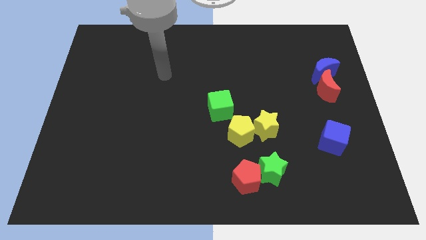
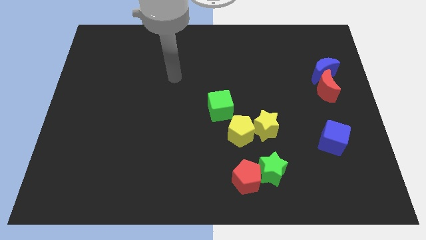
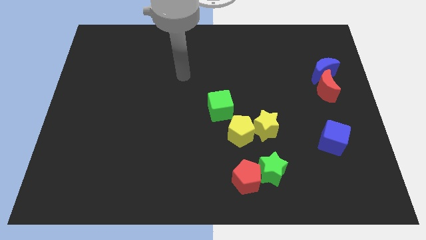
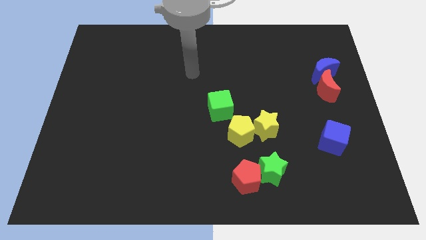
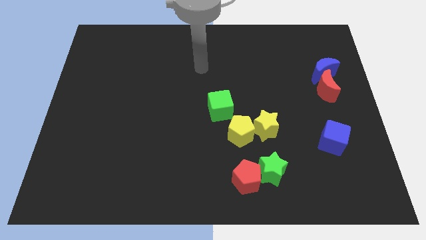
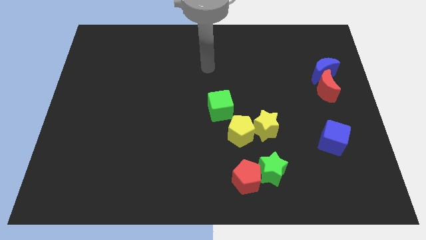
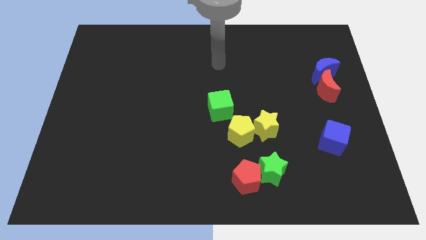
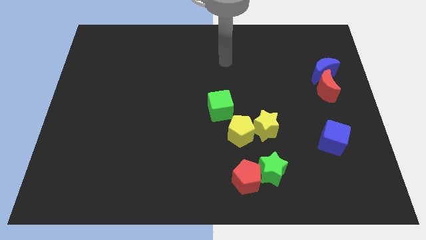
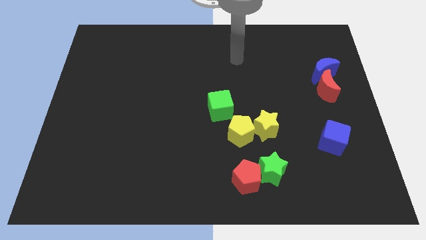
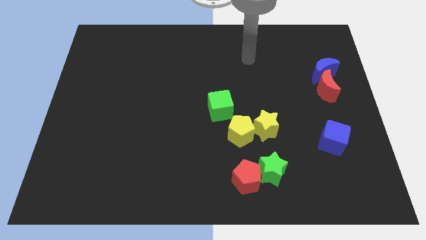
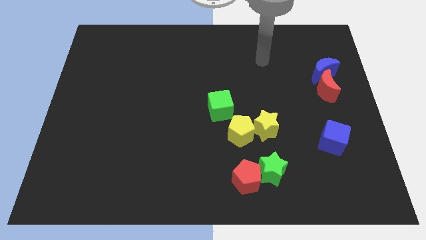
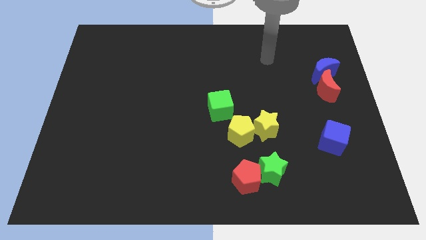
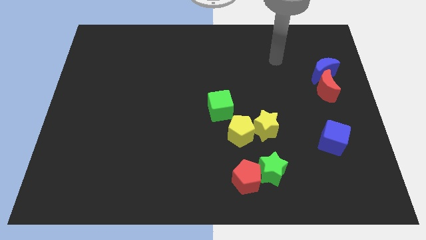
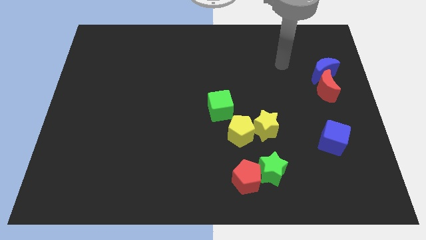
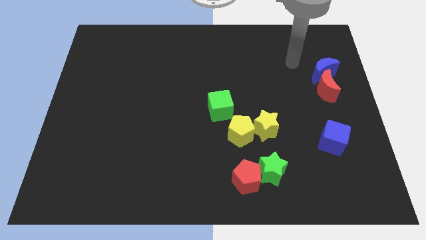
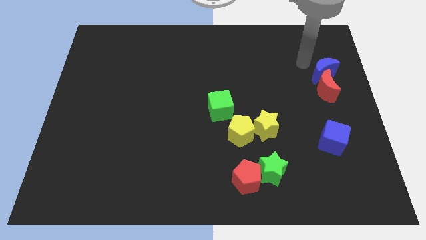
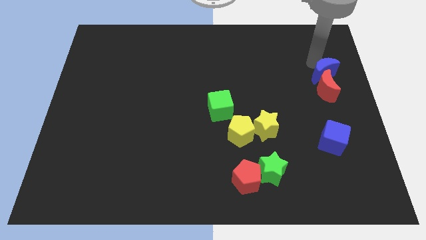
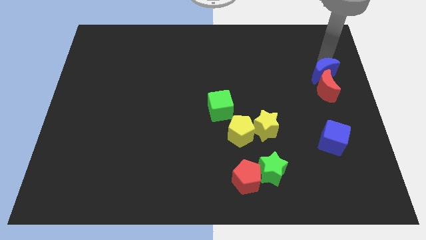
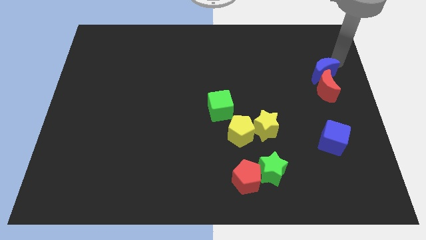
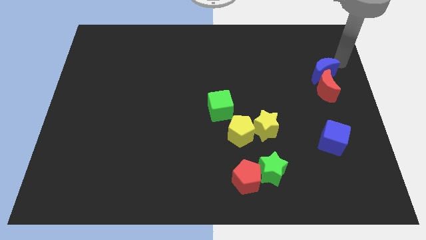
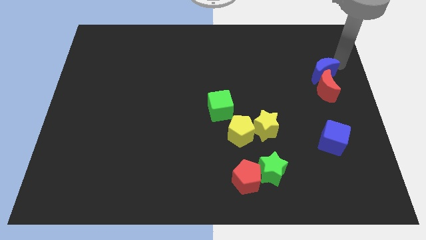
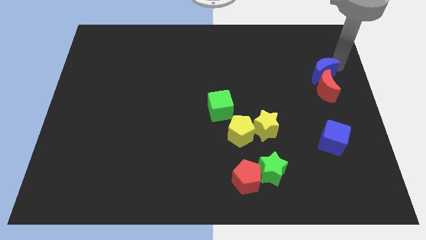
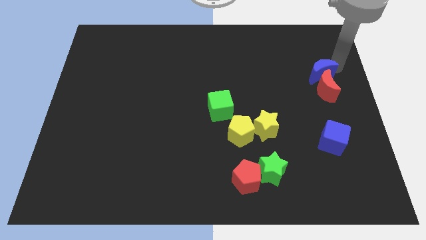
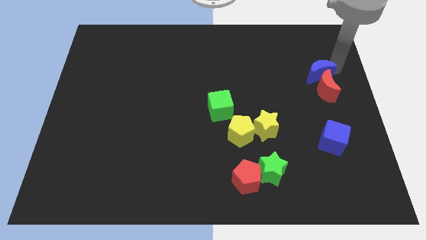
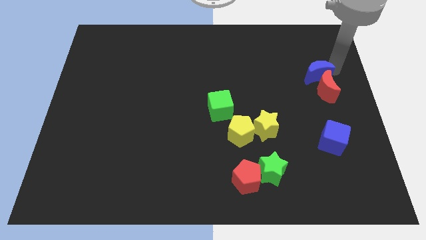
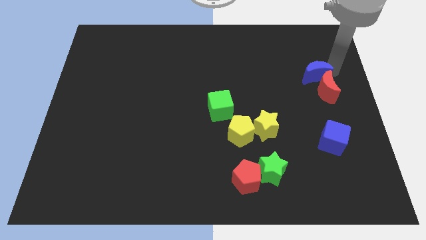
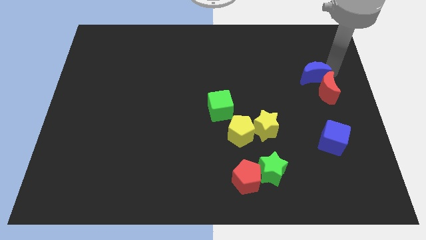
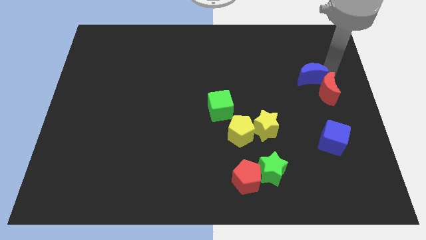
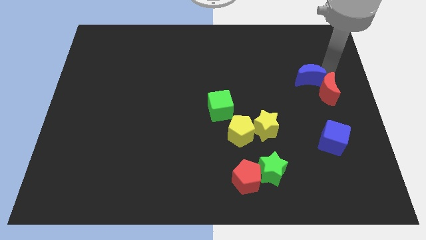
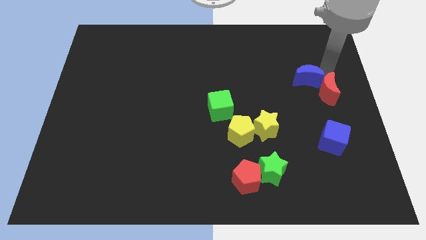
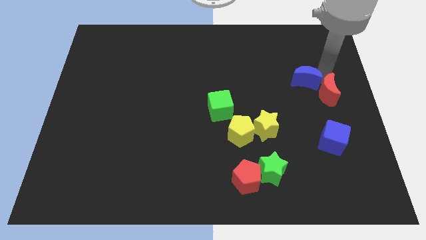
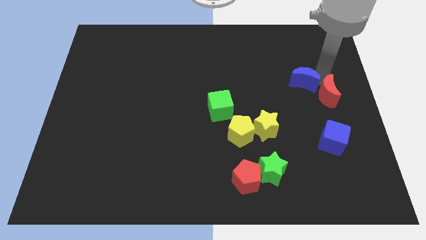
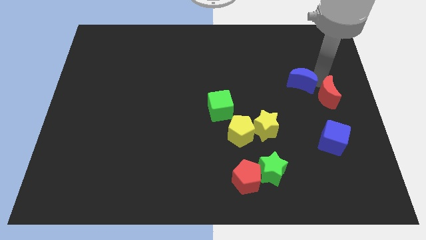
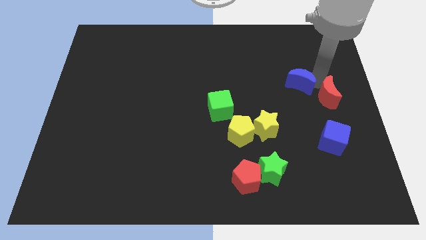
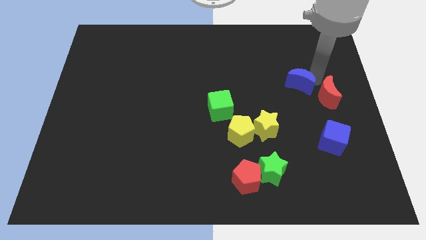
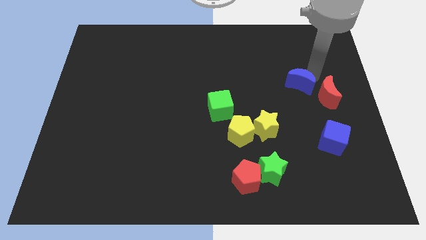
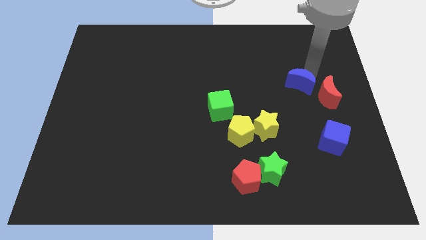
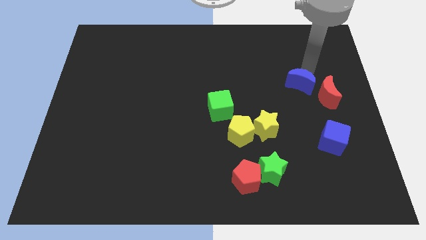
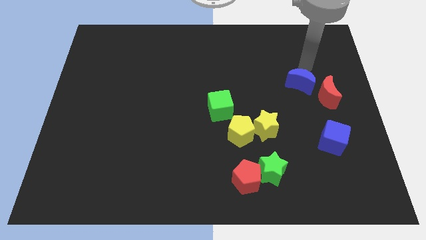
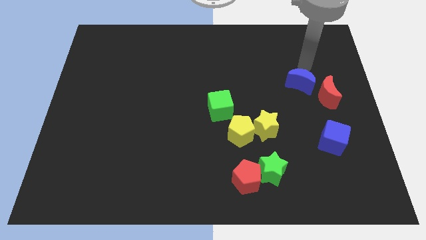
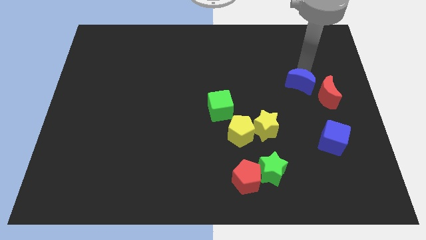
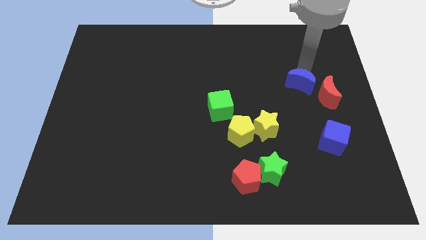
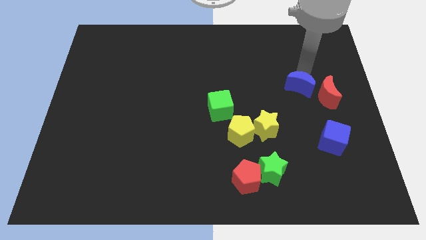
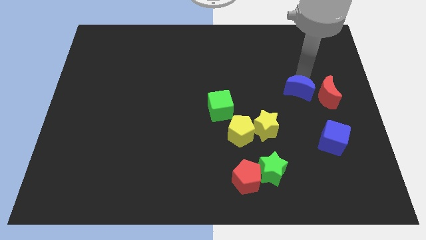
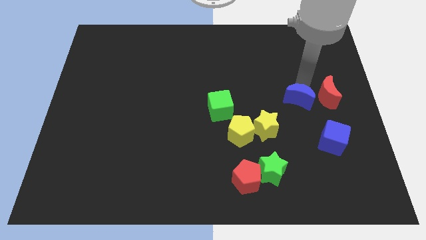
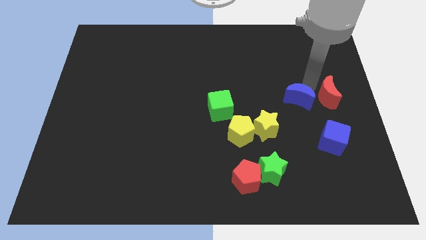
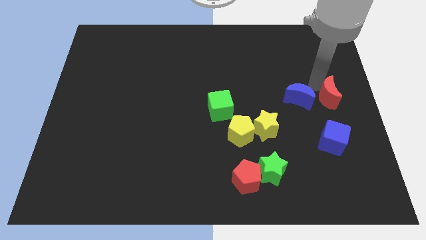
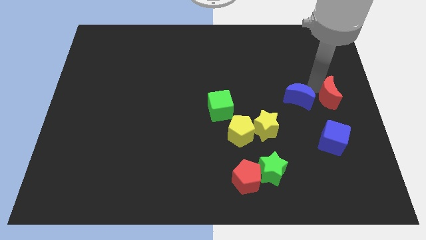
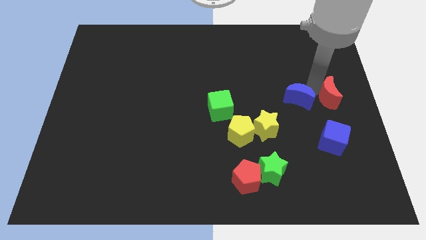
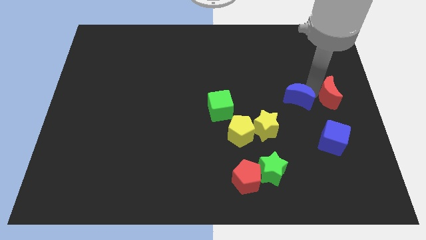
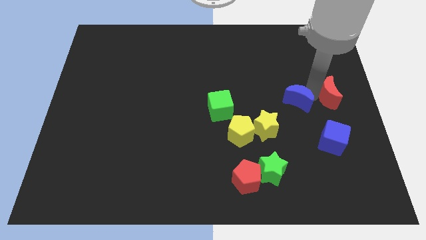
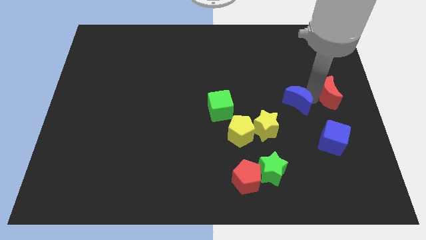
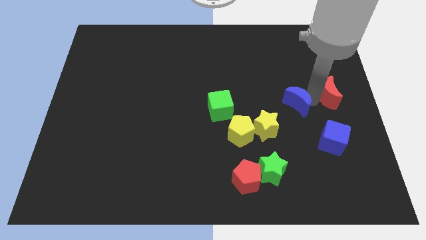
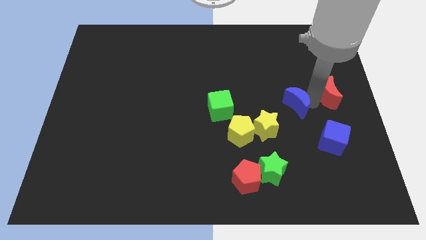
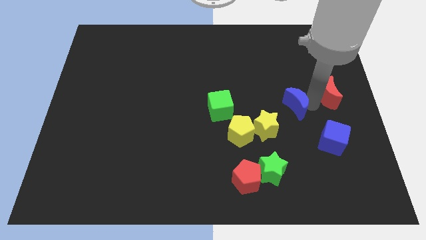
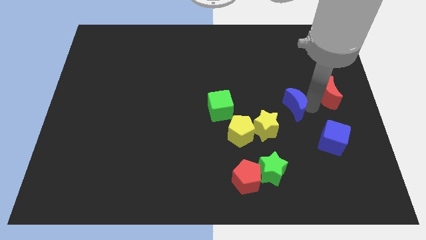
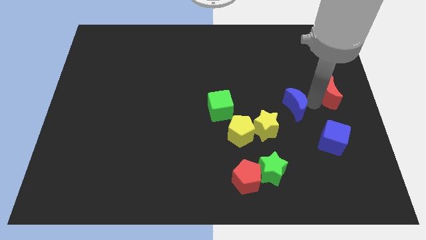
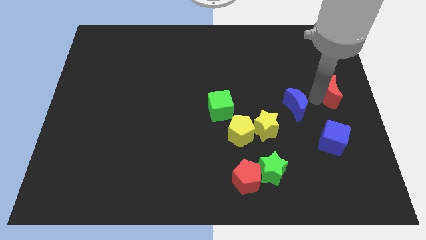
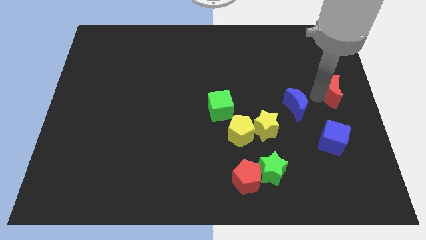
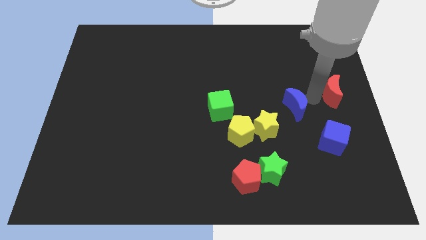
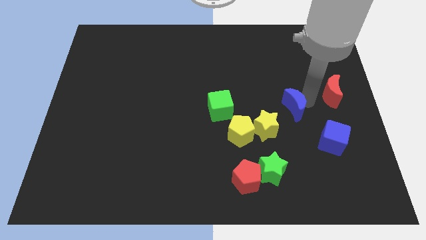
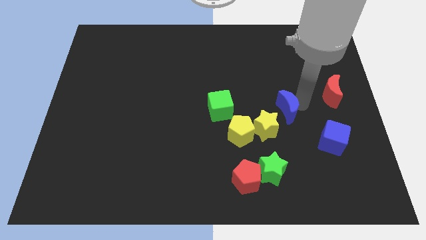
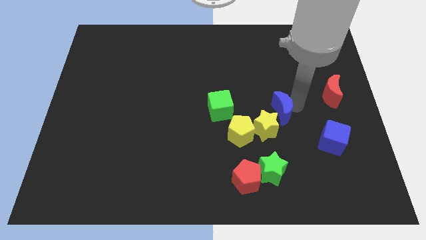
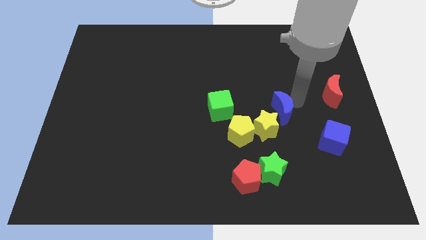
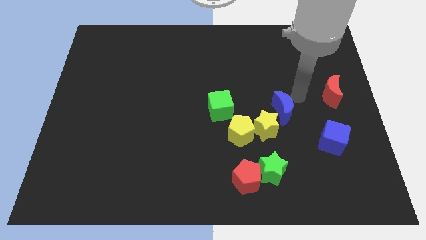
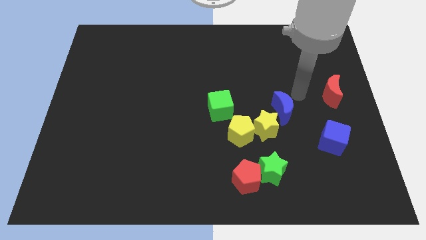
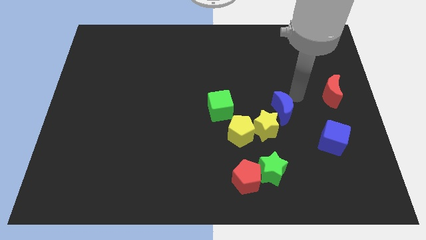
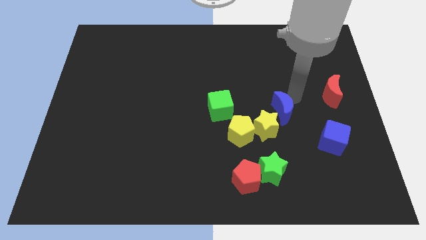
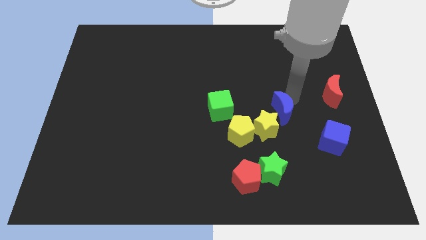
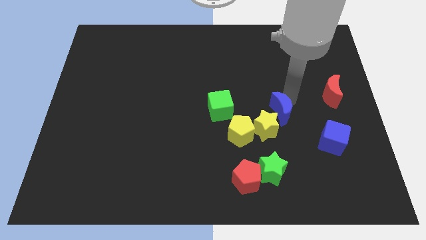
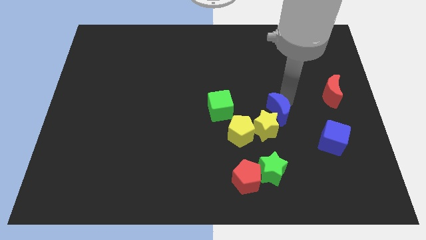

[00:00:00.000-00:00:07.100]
move the blue moon to the yellow star

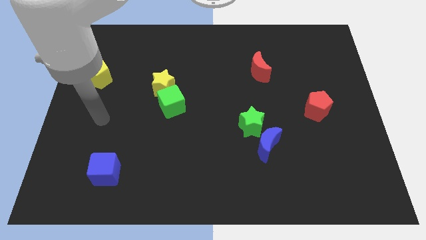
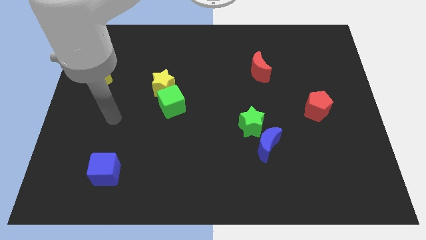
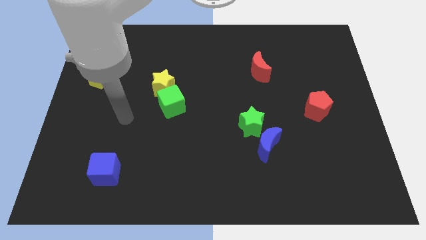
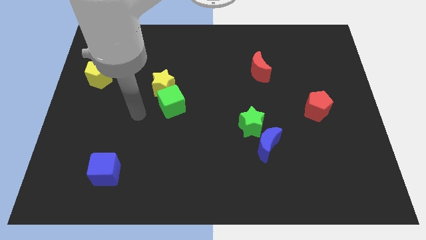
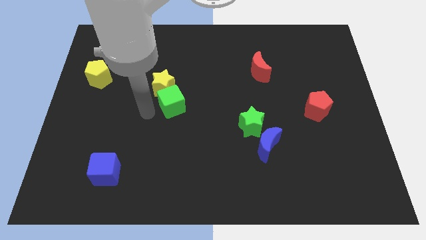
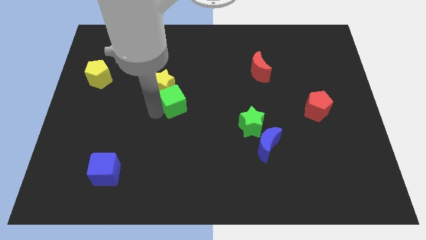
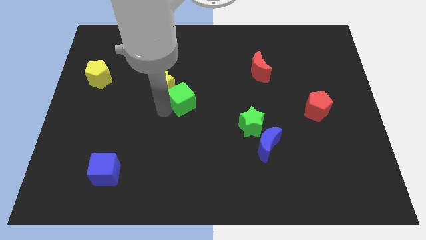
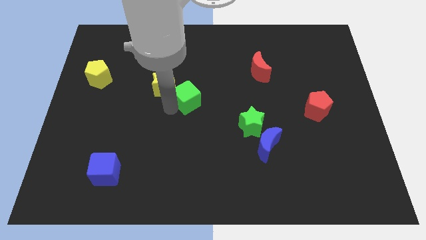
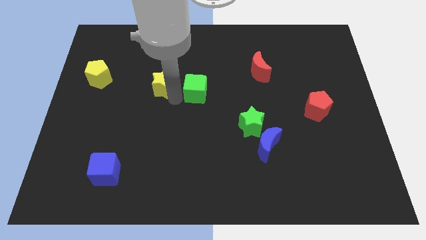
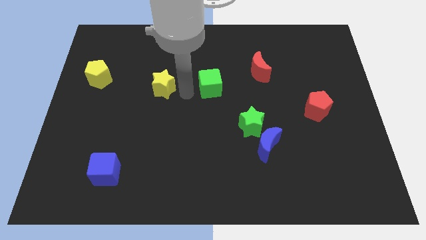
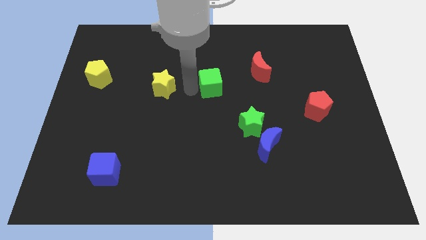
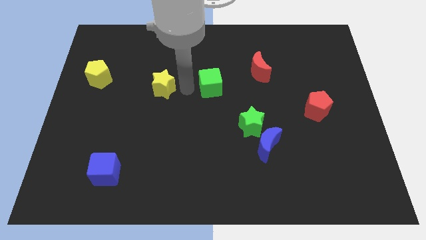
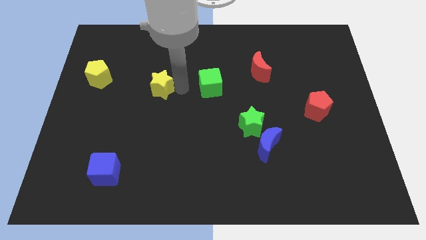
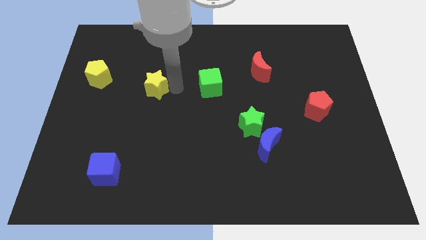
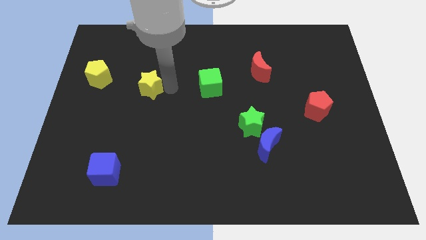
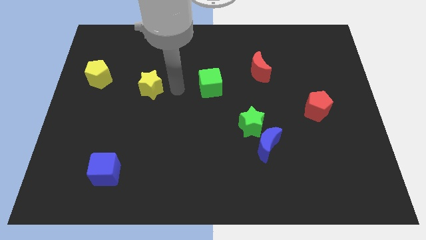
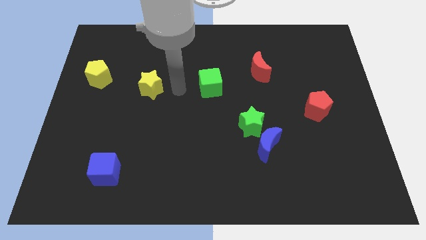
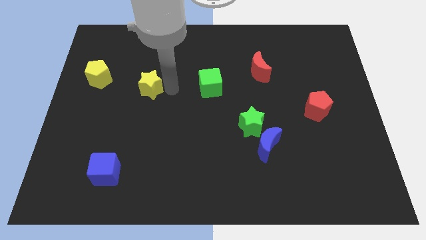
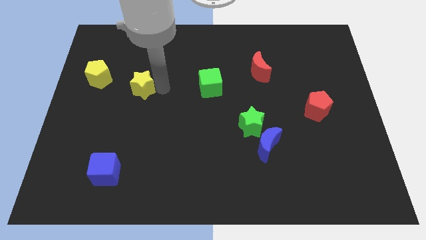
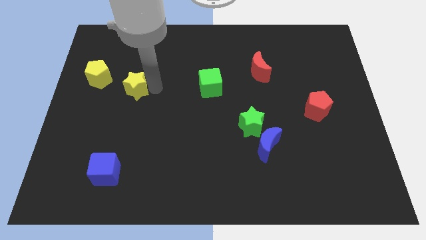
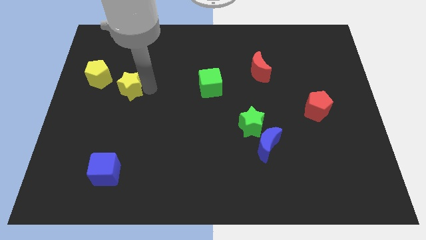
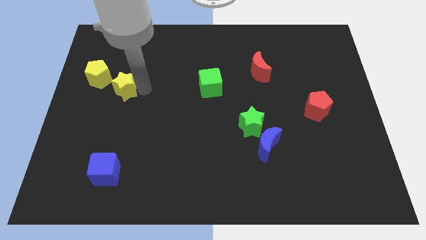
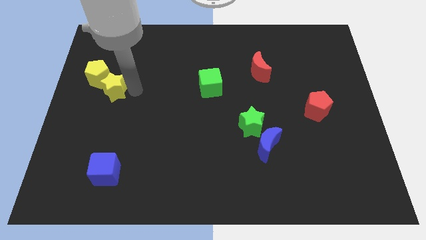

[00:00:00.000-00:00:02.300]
put the yellow star towards the yellow pentagon
